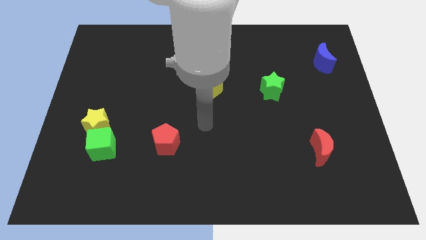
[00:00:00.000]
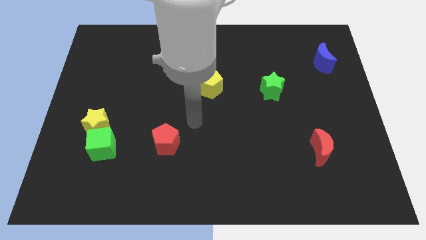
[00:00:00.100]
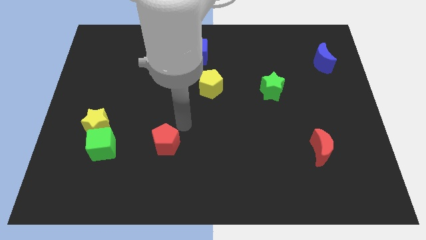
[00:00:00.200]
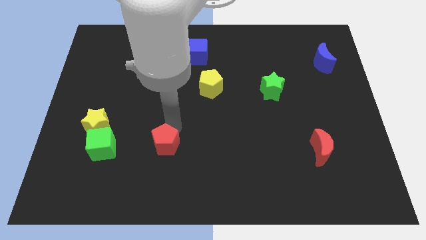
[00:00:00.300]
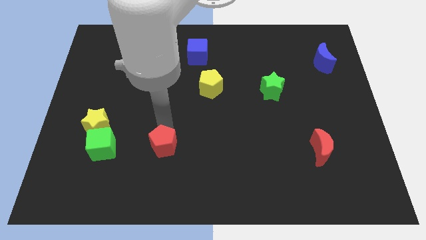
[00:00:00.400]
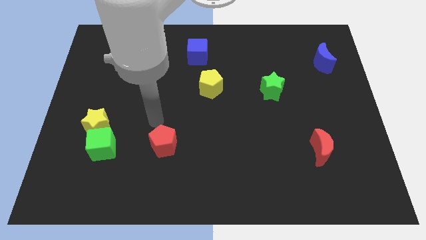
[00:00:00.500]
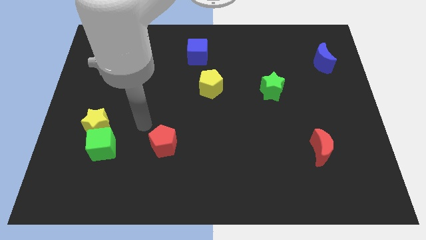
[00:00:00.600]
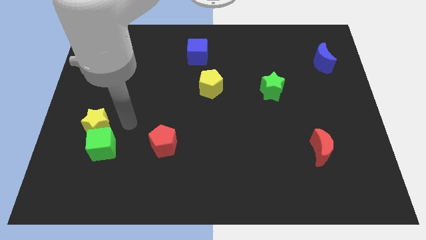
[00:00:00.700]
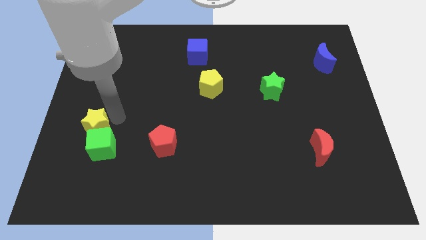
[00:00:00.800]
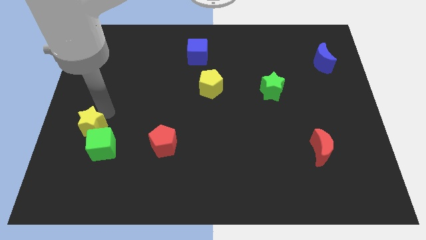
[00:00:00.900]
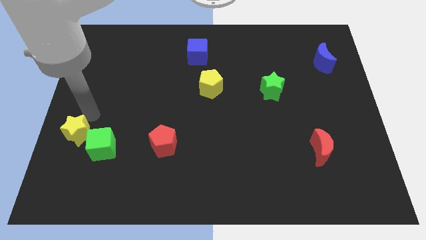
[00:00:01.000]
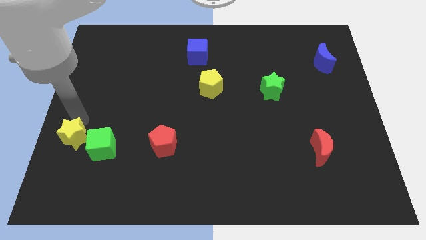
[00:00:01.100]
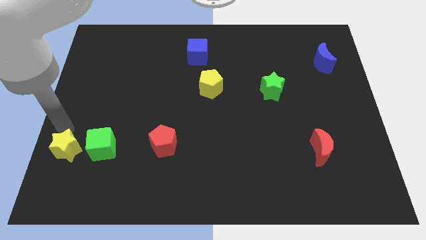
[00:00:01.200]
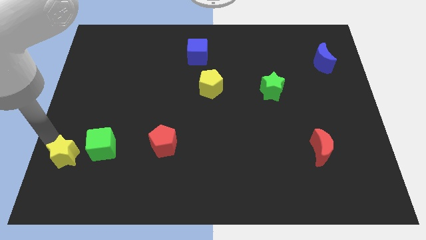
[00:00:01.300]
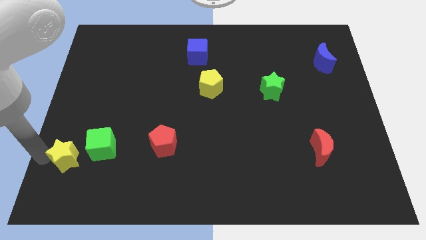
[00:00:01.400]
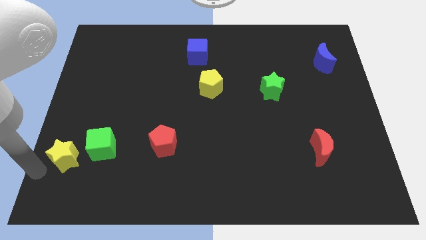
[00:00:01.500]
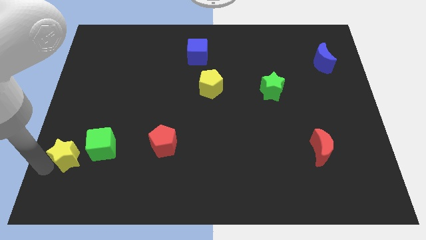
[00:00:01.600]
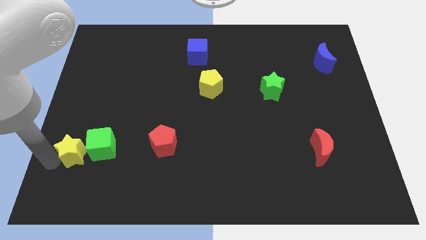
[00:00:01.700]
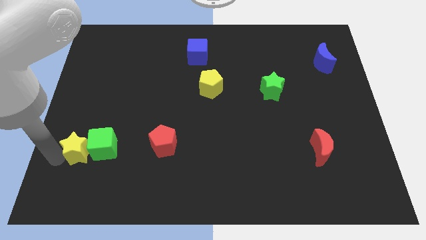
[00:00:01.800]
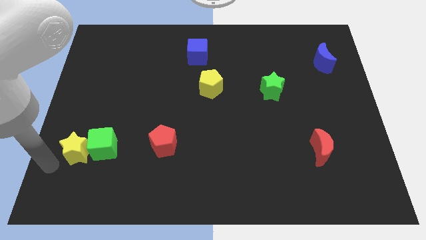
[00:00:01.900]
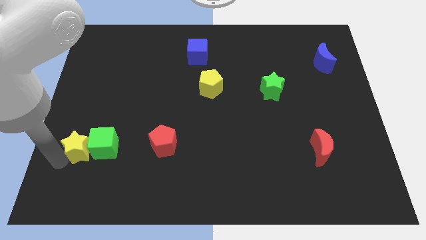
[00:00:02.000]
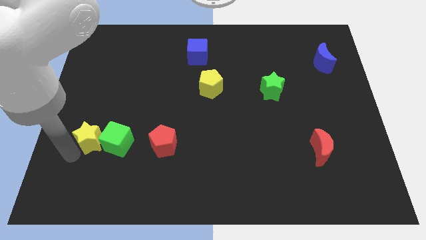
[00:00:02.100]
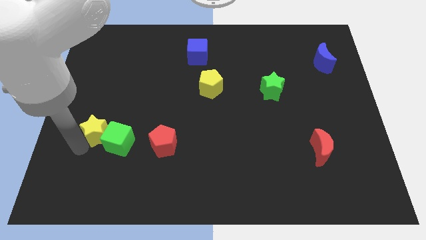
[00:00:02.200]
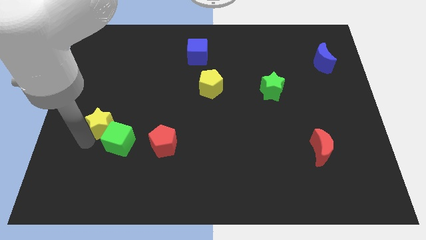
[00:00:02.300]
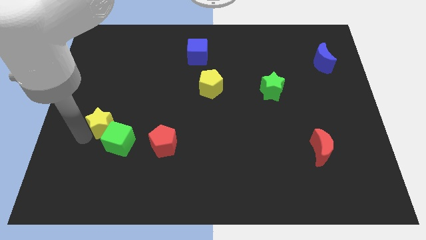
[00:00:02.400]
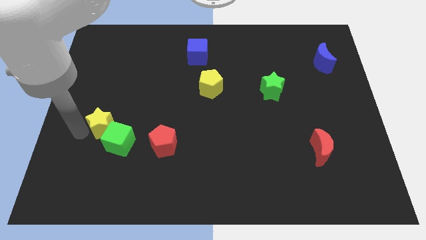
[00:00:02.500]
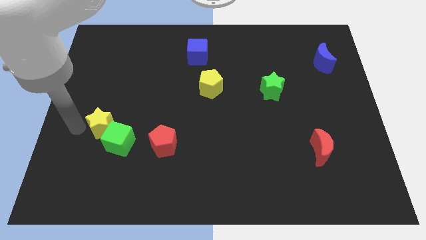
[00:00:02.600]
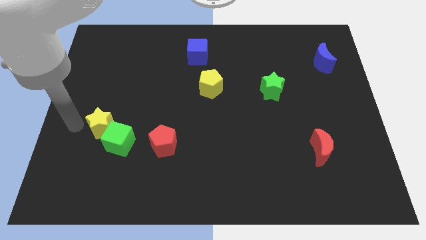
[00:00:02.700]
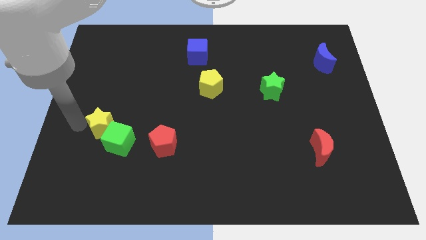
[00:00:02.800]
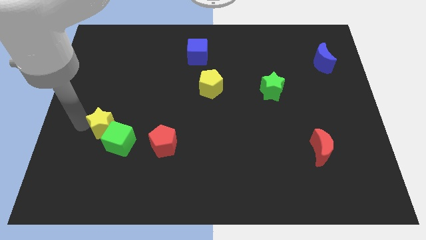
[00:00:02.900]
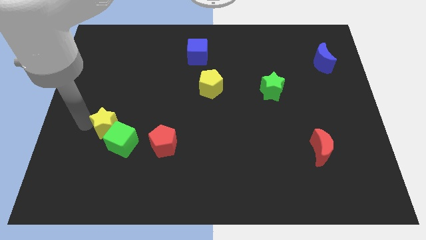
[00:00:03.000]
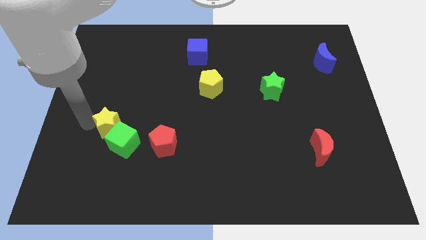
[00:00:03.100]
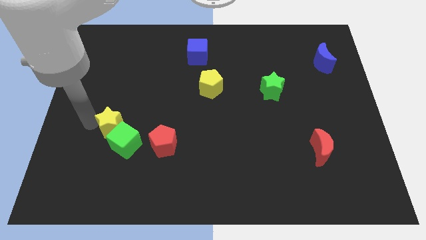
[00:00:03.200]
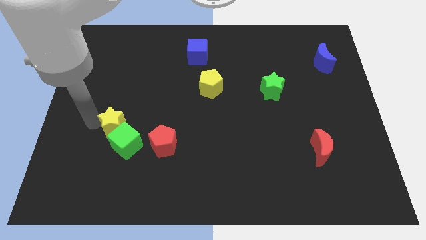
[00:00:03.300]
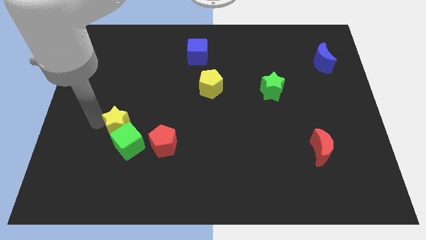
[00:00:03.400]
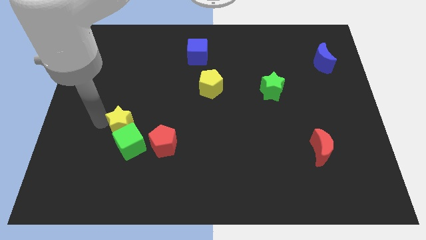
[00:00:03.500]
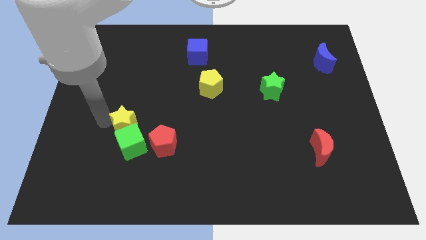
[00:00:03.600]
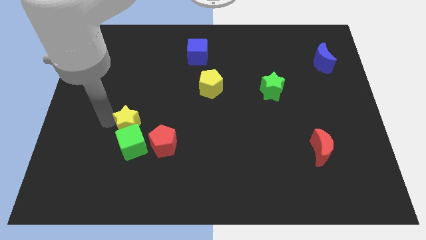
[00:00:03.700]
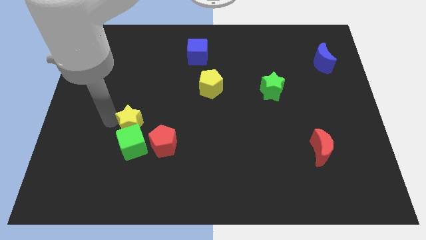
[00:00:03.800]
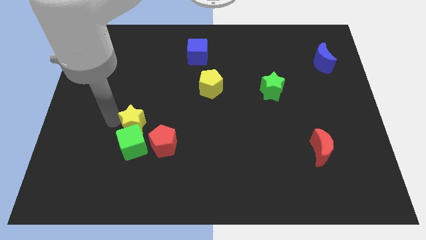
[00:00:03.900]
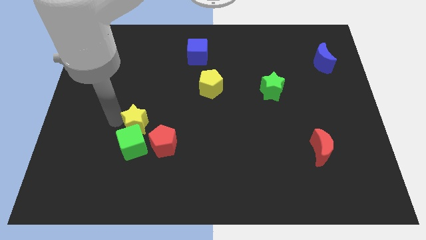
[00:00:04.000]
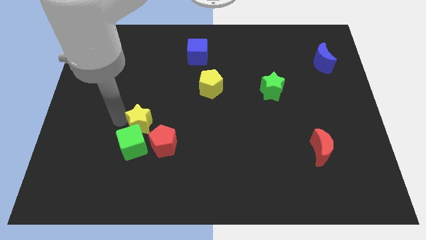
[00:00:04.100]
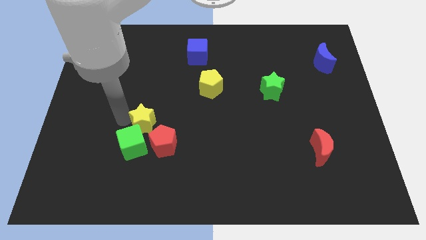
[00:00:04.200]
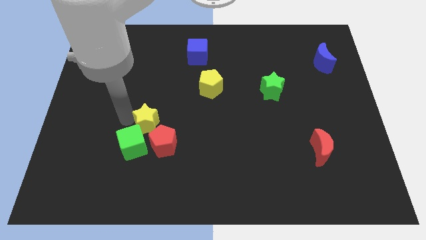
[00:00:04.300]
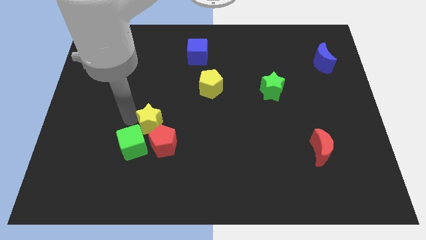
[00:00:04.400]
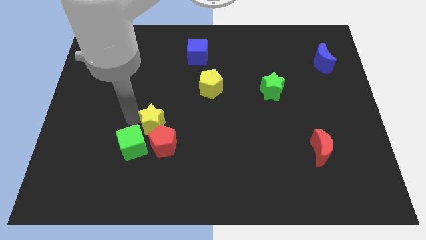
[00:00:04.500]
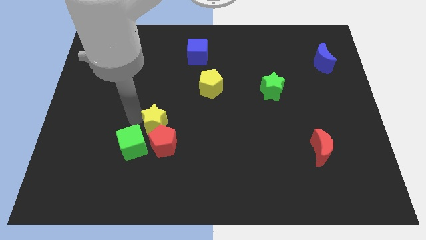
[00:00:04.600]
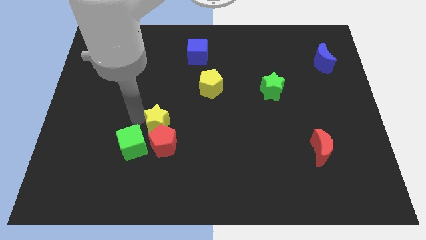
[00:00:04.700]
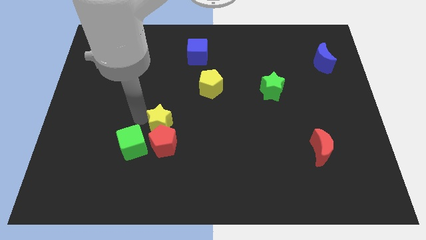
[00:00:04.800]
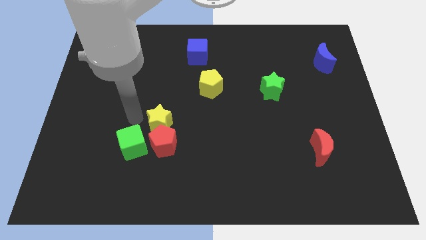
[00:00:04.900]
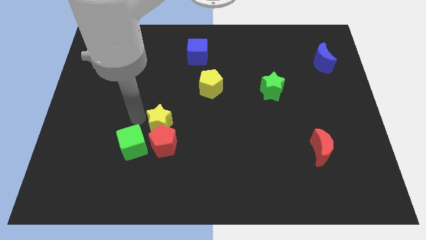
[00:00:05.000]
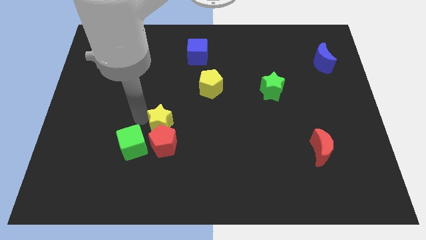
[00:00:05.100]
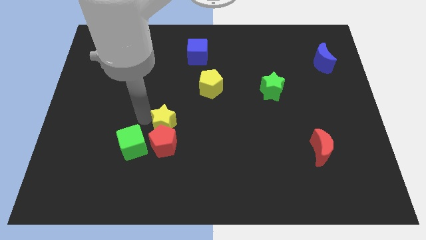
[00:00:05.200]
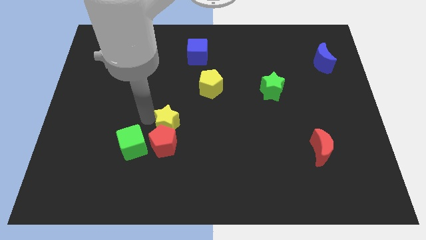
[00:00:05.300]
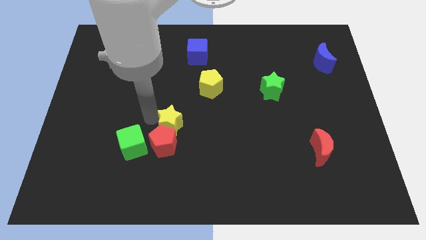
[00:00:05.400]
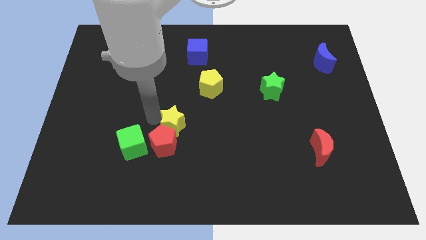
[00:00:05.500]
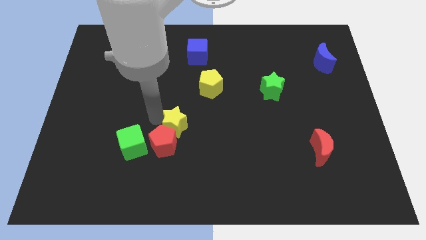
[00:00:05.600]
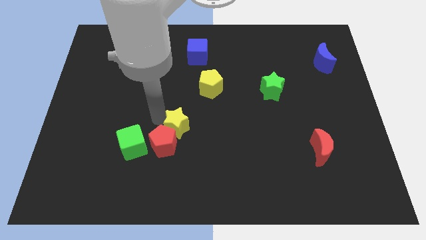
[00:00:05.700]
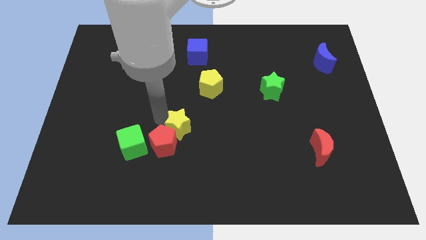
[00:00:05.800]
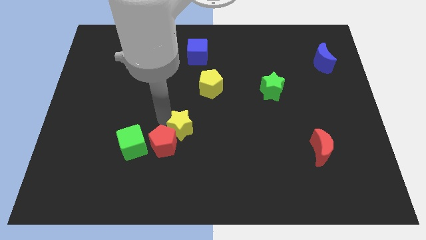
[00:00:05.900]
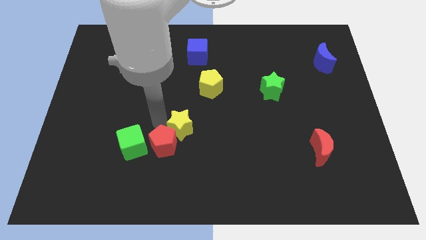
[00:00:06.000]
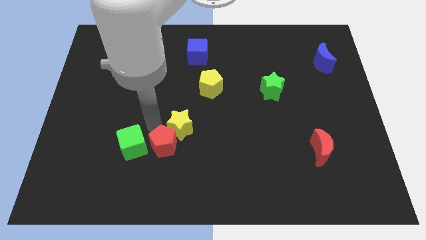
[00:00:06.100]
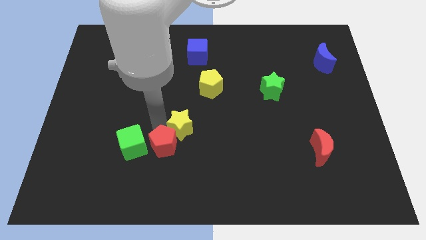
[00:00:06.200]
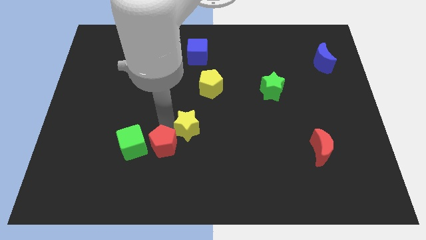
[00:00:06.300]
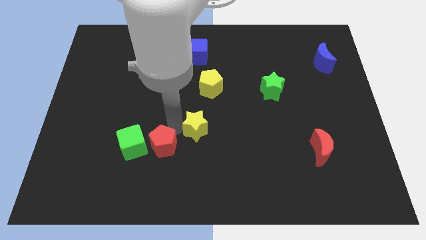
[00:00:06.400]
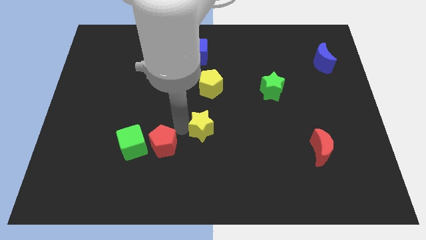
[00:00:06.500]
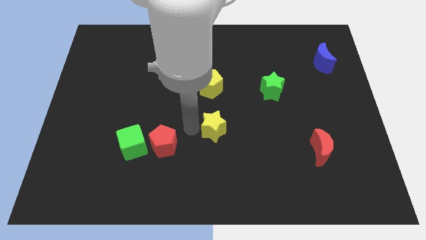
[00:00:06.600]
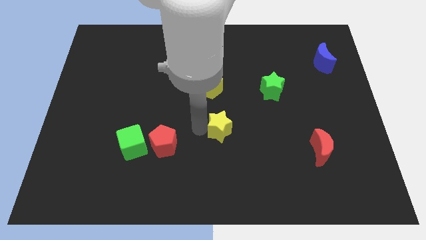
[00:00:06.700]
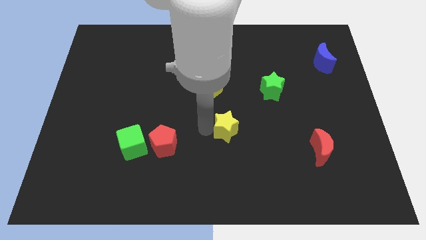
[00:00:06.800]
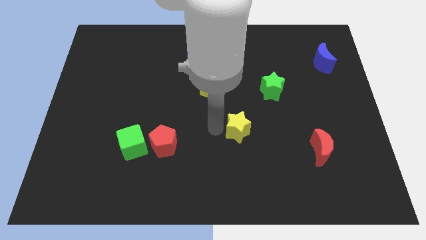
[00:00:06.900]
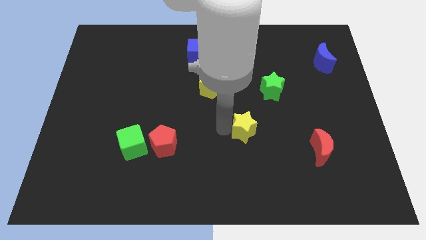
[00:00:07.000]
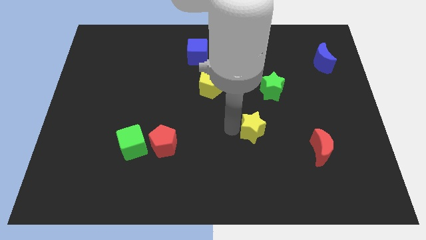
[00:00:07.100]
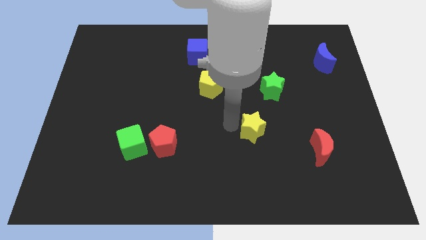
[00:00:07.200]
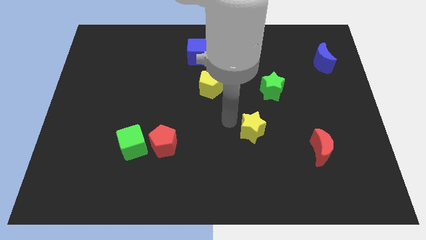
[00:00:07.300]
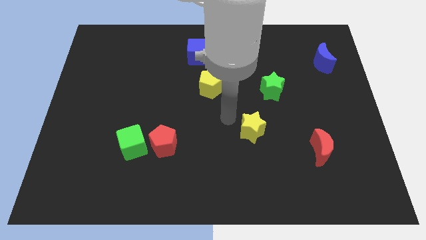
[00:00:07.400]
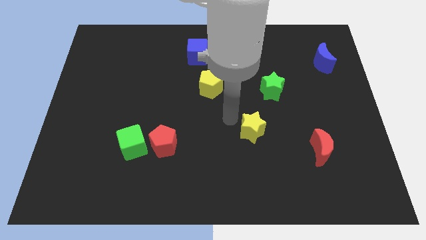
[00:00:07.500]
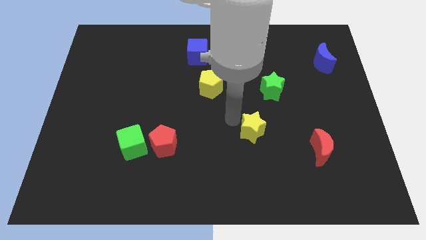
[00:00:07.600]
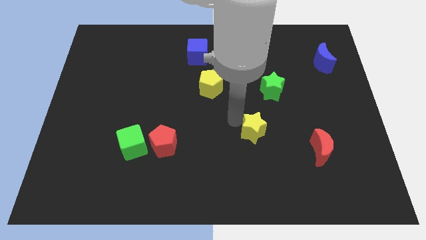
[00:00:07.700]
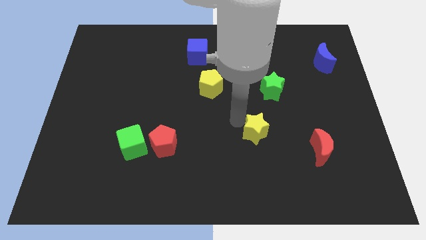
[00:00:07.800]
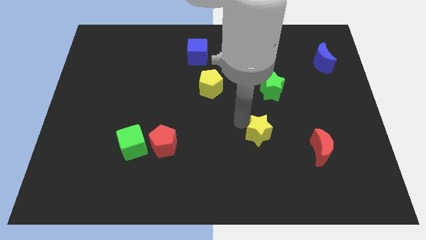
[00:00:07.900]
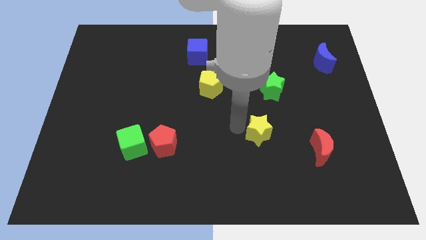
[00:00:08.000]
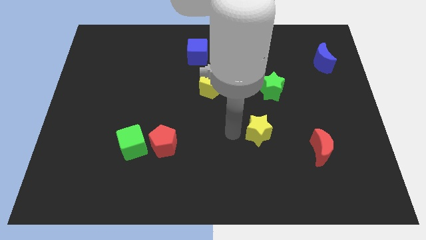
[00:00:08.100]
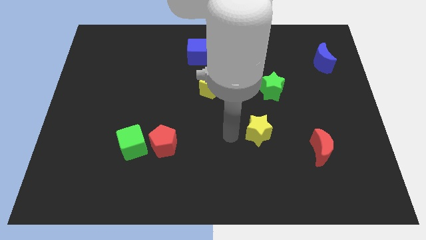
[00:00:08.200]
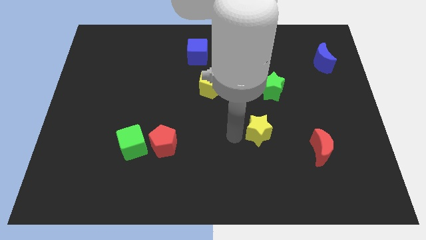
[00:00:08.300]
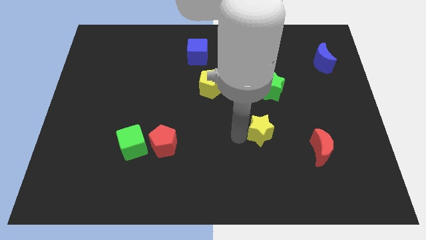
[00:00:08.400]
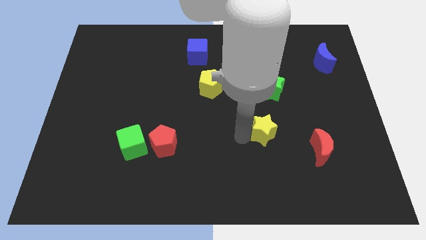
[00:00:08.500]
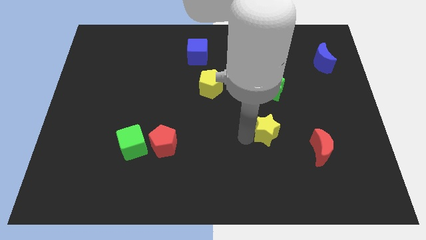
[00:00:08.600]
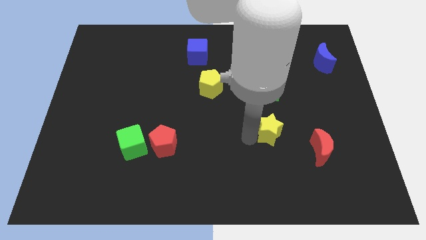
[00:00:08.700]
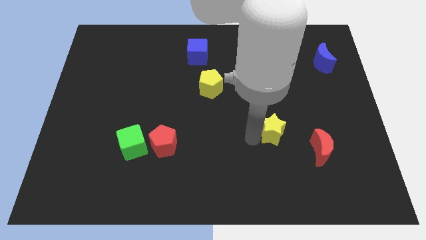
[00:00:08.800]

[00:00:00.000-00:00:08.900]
push the yellow star to the top left side of the red moon
